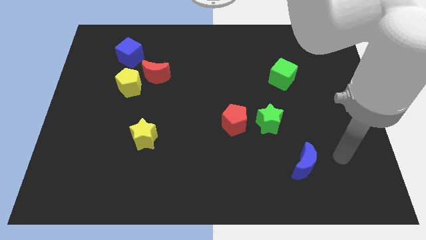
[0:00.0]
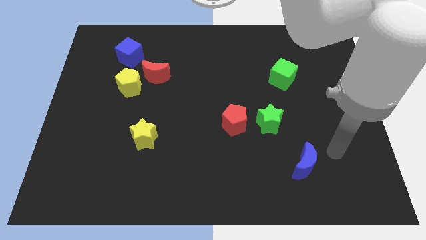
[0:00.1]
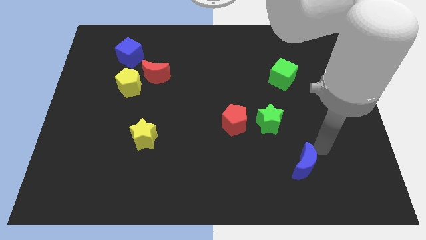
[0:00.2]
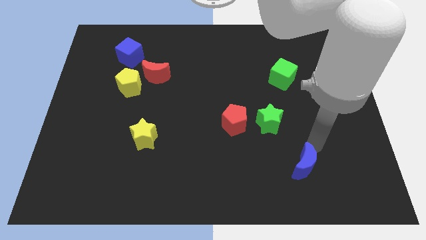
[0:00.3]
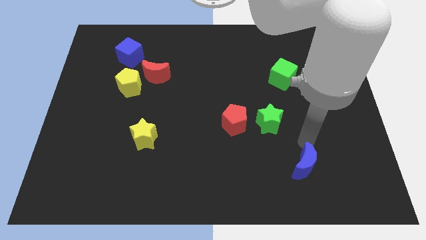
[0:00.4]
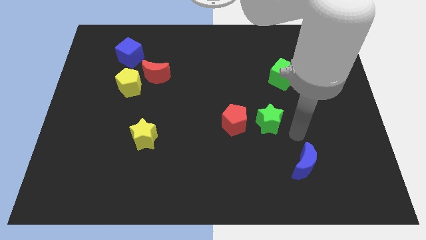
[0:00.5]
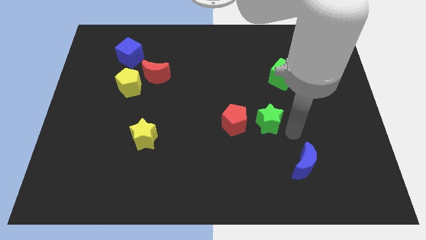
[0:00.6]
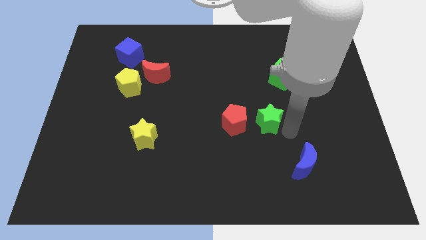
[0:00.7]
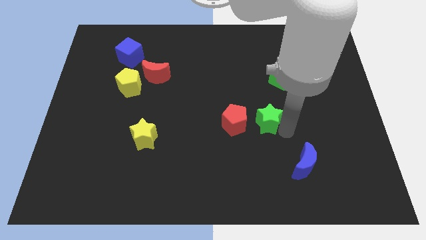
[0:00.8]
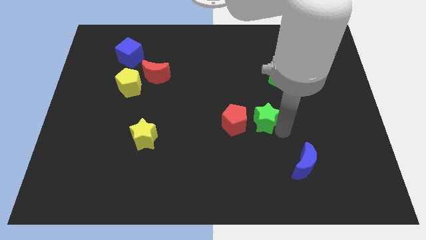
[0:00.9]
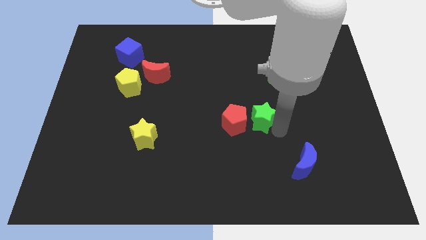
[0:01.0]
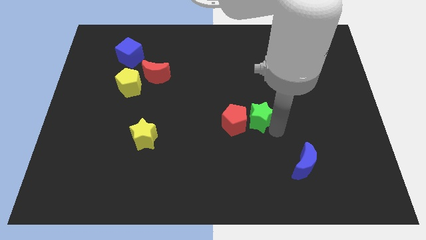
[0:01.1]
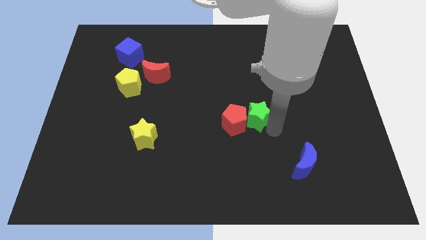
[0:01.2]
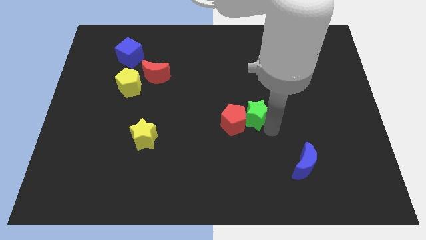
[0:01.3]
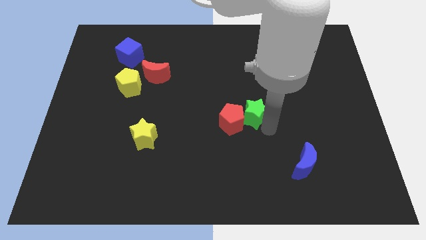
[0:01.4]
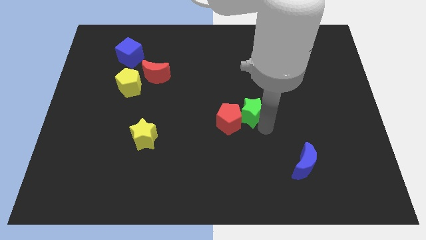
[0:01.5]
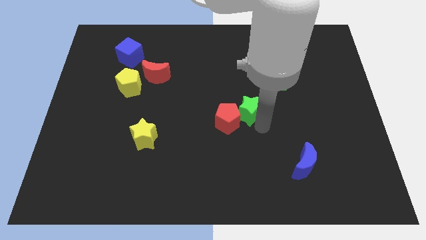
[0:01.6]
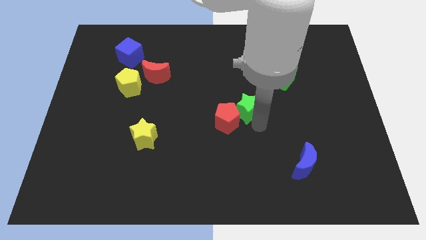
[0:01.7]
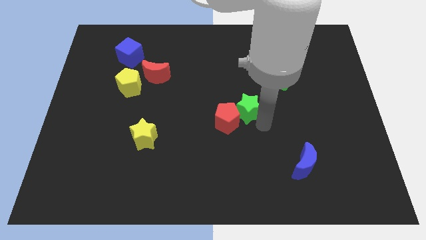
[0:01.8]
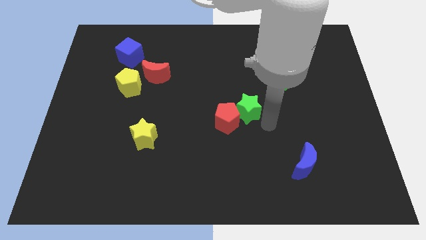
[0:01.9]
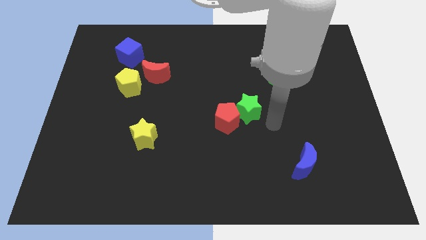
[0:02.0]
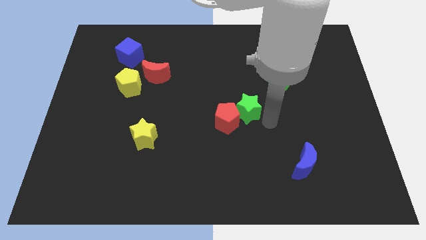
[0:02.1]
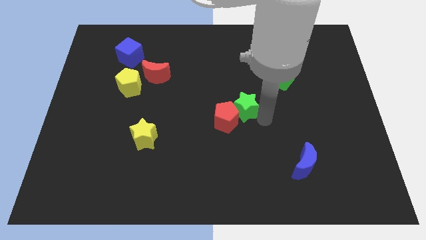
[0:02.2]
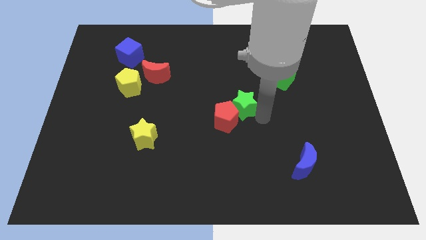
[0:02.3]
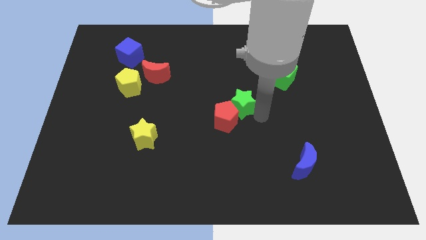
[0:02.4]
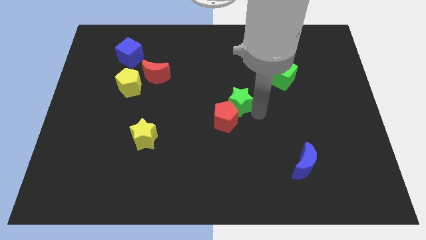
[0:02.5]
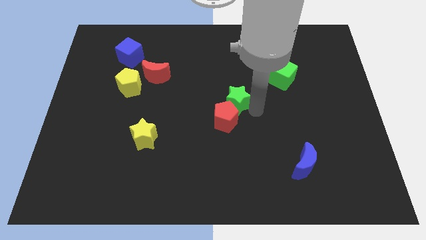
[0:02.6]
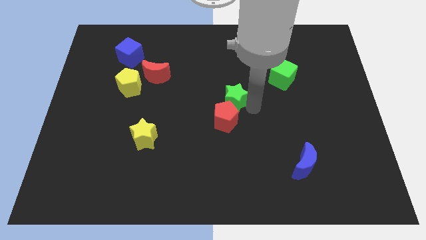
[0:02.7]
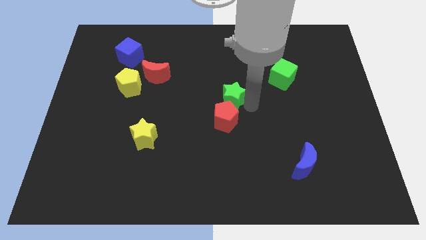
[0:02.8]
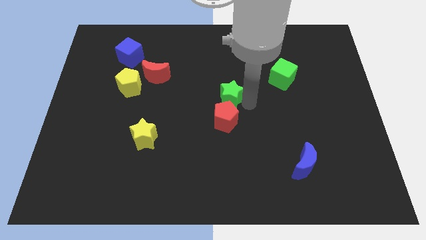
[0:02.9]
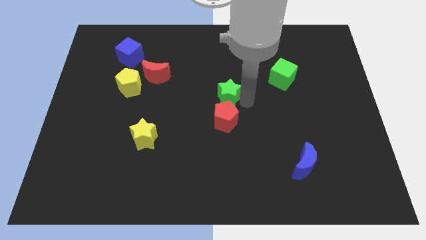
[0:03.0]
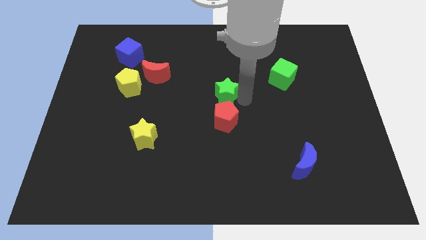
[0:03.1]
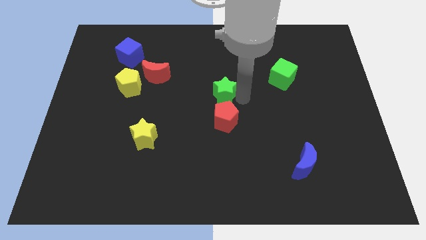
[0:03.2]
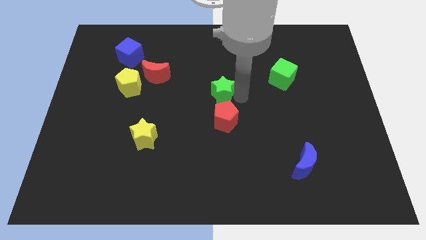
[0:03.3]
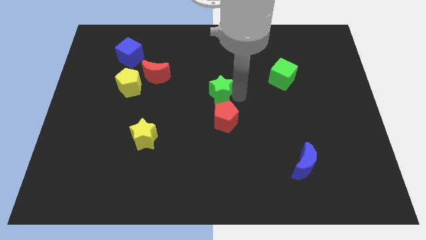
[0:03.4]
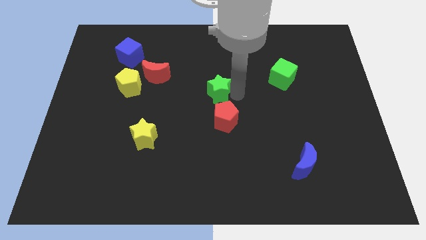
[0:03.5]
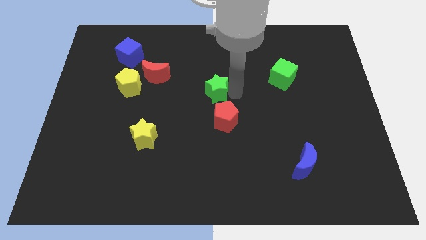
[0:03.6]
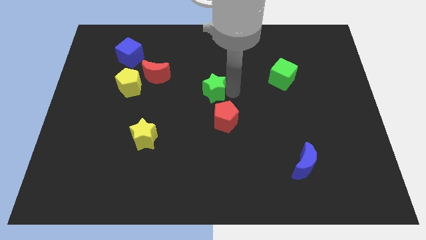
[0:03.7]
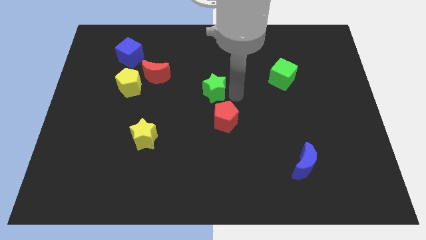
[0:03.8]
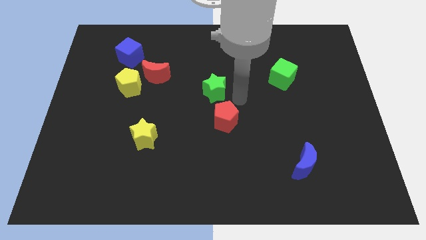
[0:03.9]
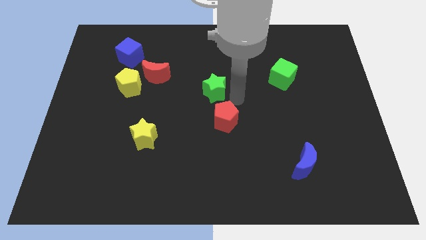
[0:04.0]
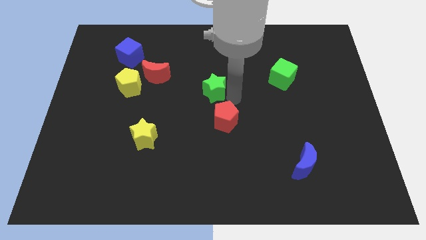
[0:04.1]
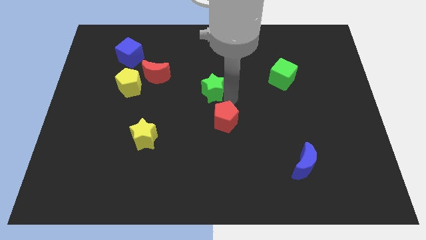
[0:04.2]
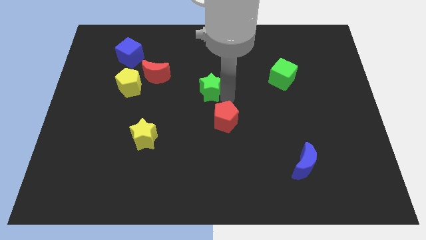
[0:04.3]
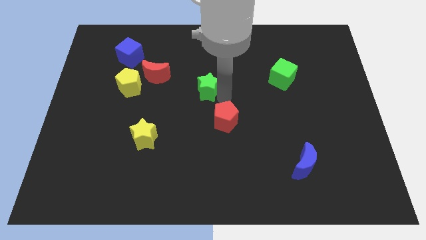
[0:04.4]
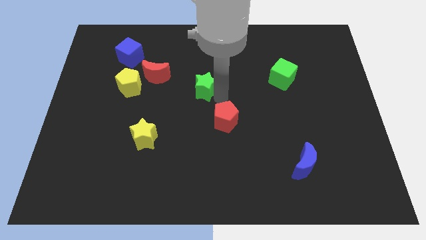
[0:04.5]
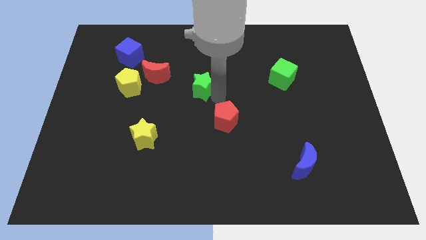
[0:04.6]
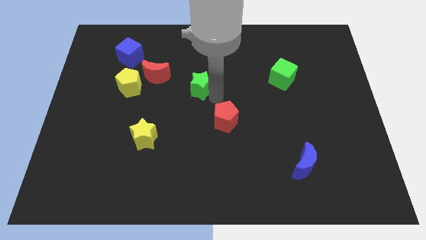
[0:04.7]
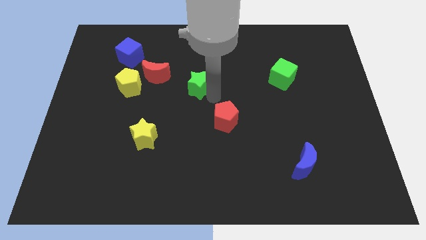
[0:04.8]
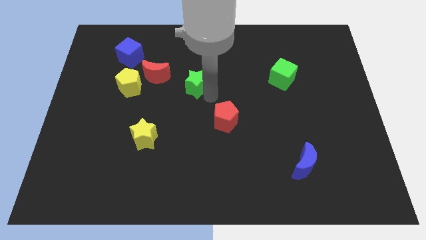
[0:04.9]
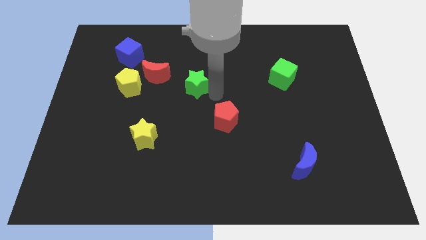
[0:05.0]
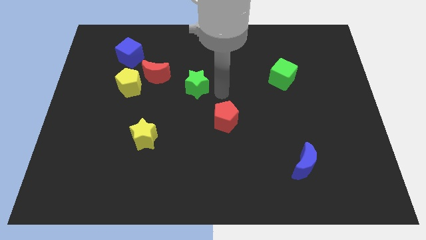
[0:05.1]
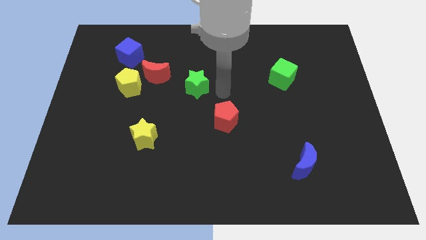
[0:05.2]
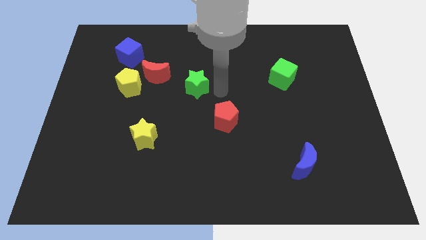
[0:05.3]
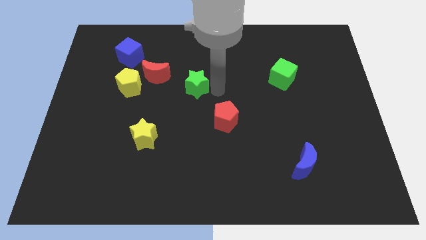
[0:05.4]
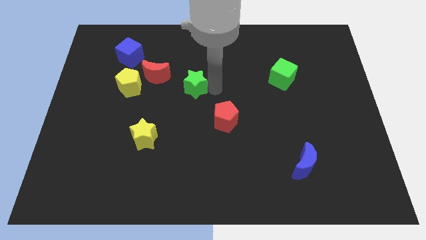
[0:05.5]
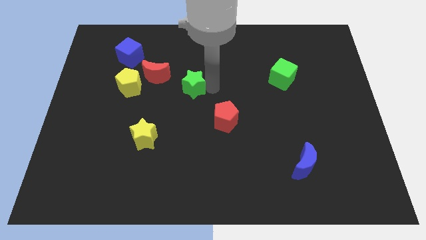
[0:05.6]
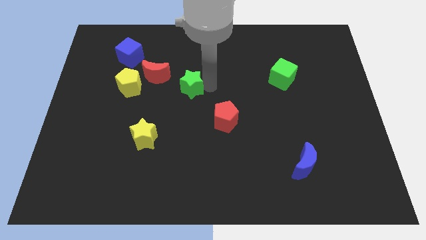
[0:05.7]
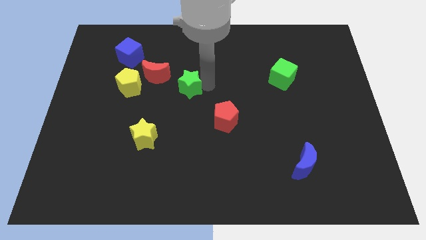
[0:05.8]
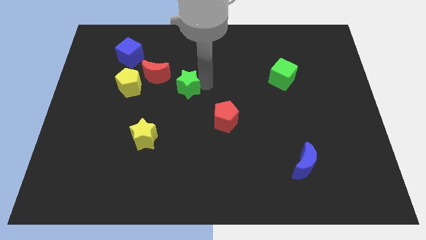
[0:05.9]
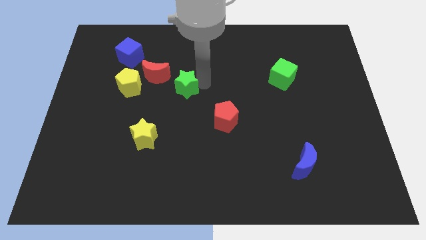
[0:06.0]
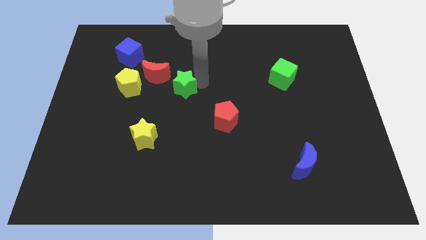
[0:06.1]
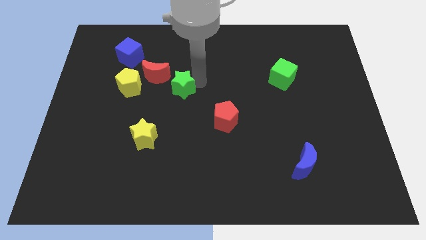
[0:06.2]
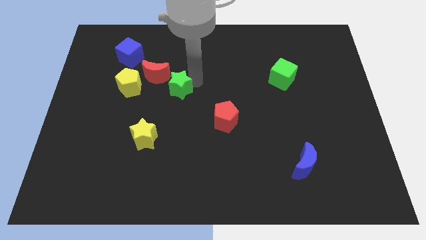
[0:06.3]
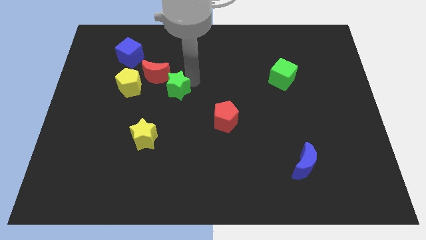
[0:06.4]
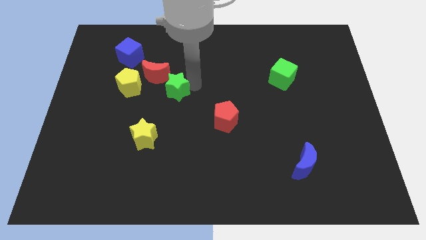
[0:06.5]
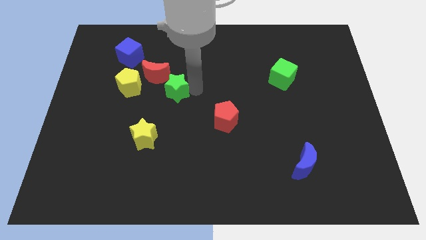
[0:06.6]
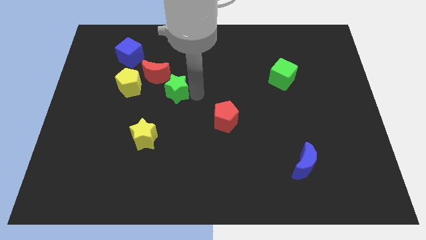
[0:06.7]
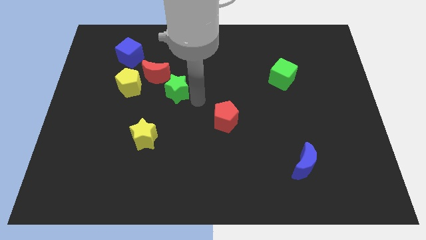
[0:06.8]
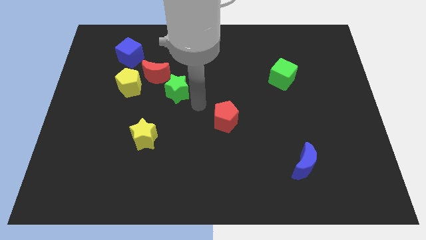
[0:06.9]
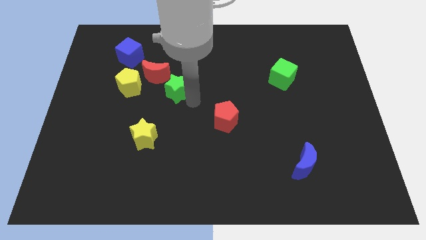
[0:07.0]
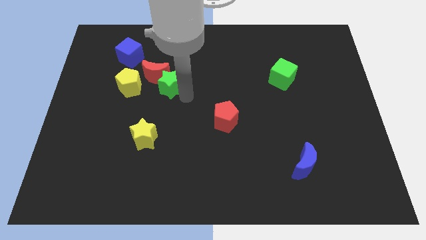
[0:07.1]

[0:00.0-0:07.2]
slide the green star next to the red moon

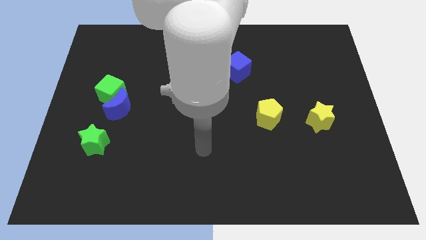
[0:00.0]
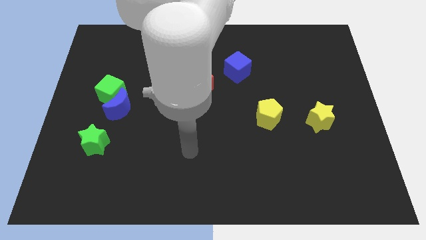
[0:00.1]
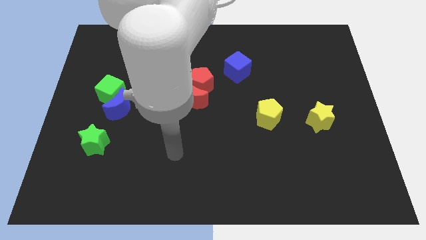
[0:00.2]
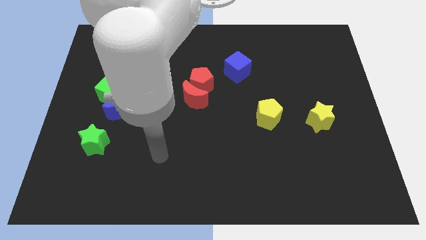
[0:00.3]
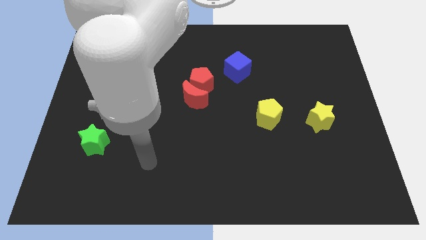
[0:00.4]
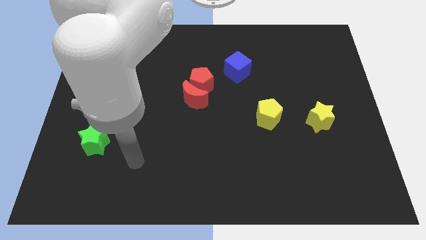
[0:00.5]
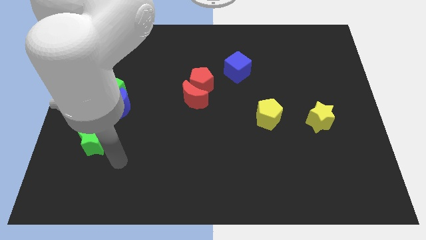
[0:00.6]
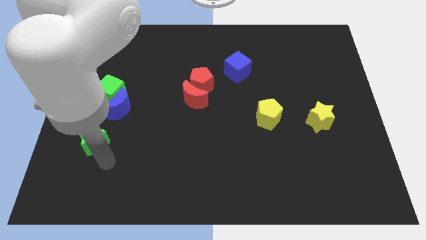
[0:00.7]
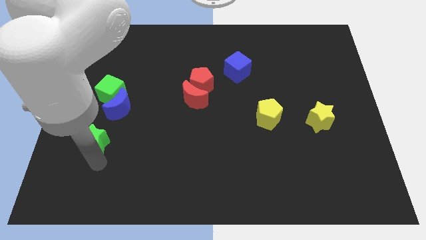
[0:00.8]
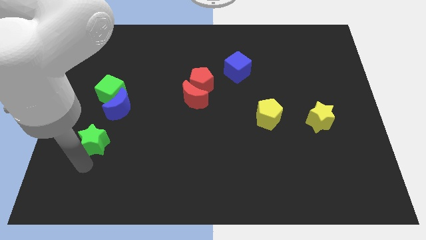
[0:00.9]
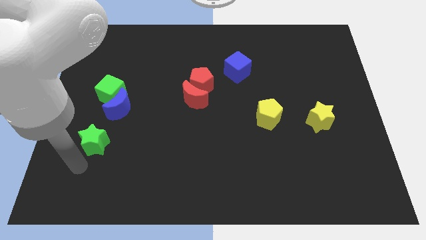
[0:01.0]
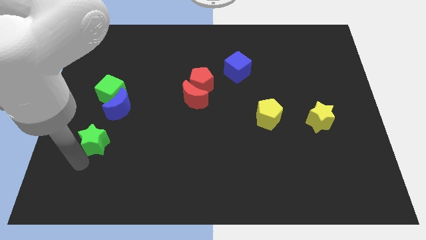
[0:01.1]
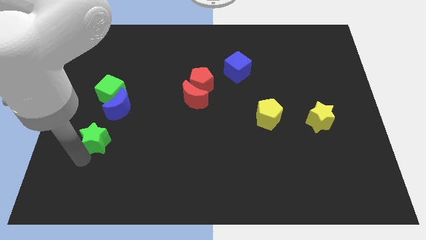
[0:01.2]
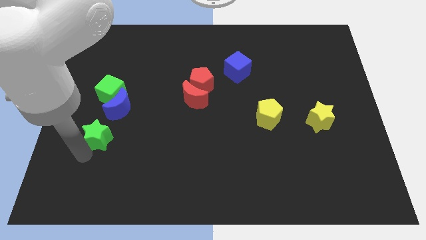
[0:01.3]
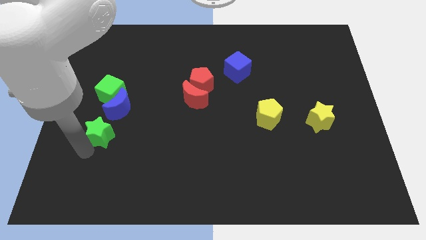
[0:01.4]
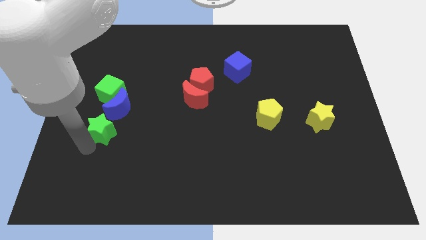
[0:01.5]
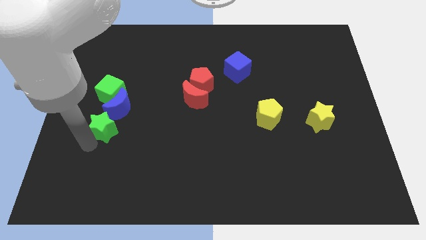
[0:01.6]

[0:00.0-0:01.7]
move the green star next to the blue moon
